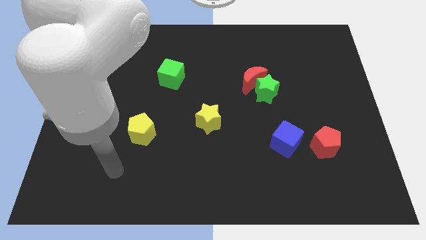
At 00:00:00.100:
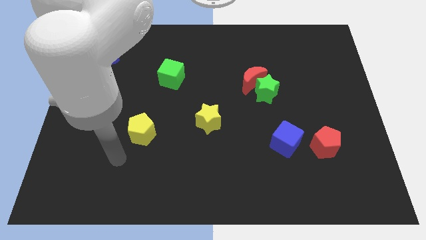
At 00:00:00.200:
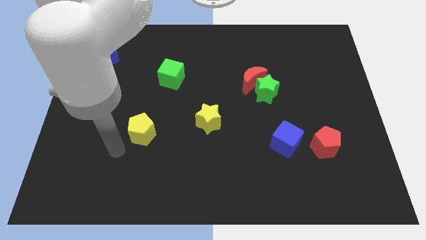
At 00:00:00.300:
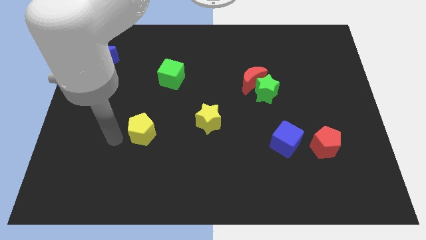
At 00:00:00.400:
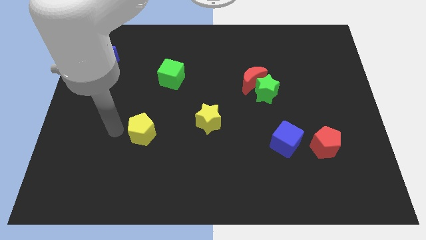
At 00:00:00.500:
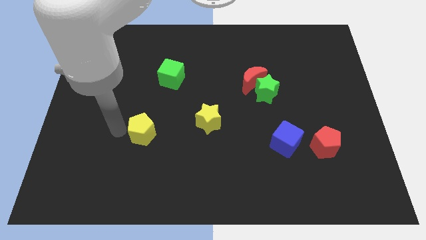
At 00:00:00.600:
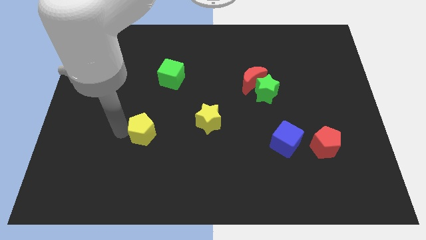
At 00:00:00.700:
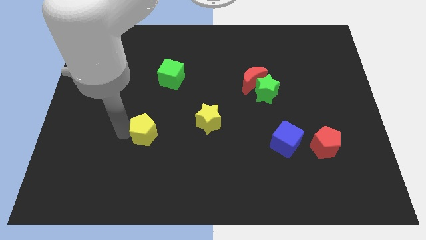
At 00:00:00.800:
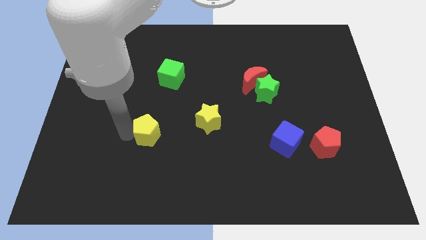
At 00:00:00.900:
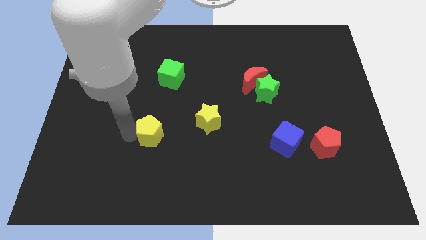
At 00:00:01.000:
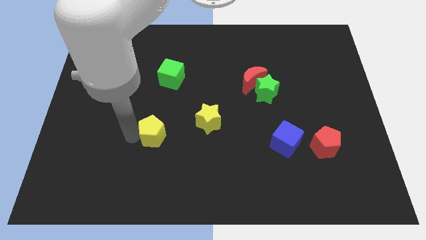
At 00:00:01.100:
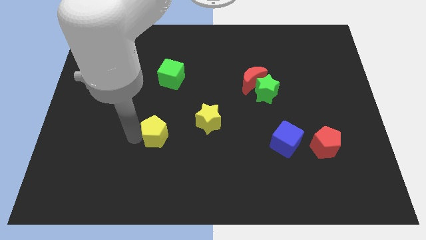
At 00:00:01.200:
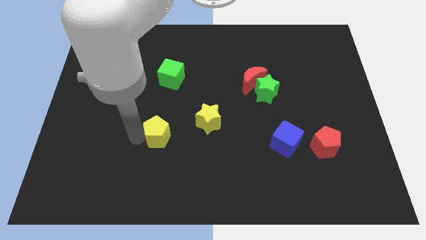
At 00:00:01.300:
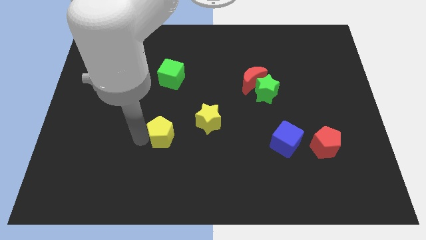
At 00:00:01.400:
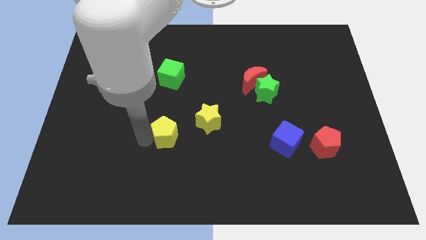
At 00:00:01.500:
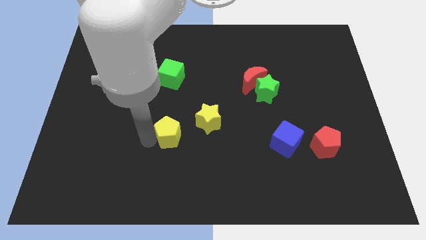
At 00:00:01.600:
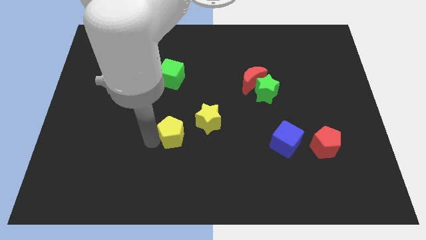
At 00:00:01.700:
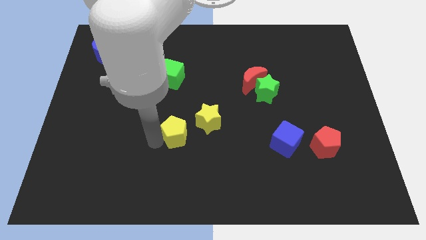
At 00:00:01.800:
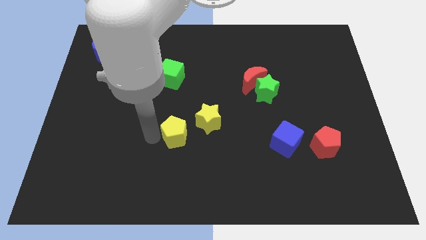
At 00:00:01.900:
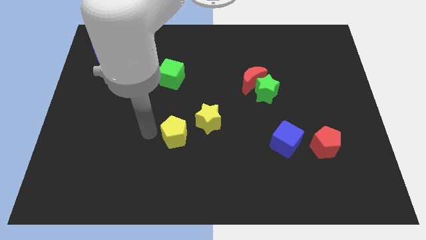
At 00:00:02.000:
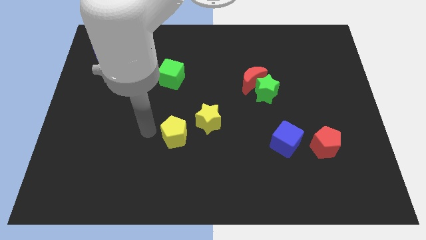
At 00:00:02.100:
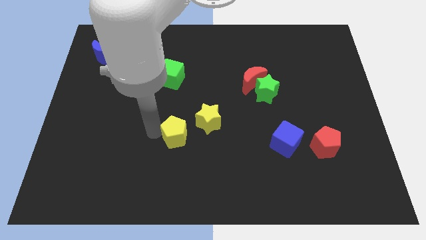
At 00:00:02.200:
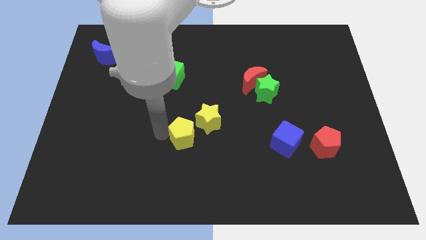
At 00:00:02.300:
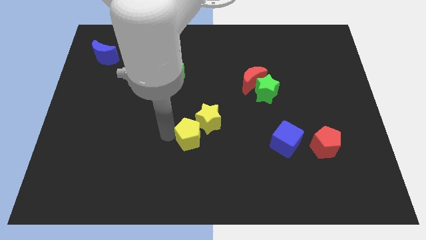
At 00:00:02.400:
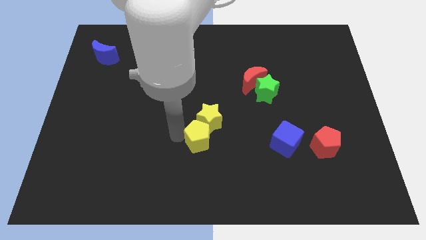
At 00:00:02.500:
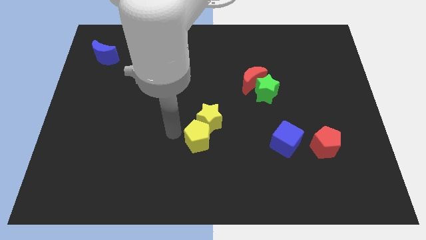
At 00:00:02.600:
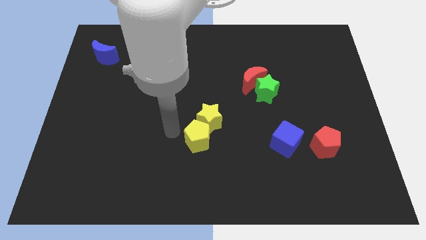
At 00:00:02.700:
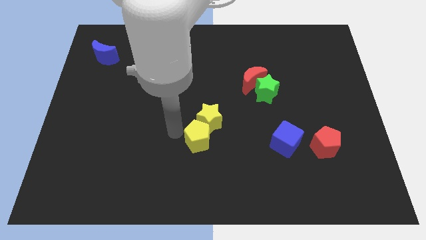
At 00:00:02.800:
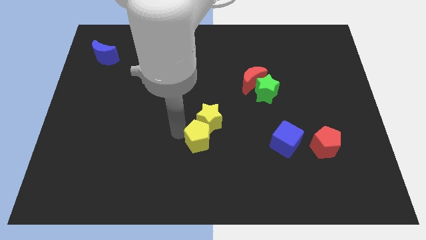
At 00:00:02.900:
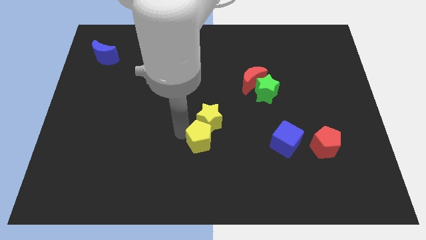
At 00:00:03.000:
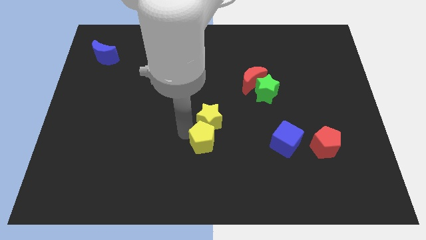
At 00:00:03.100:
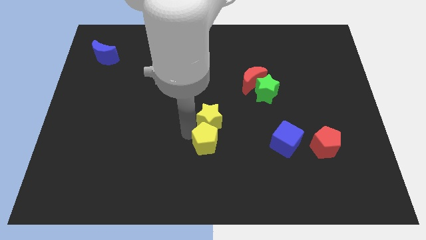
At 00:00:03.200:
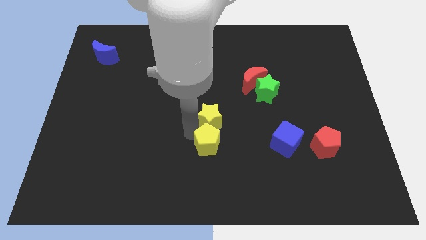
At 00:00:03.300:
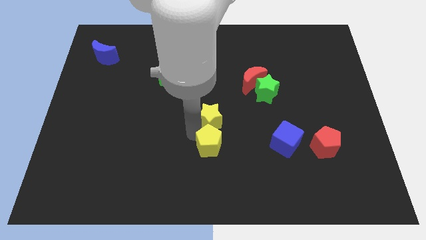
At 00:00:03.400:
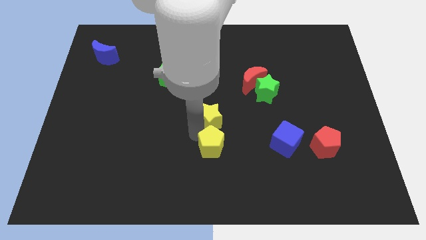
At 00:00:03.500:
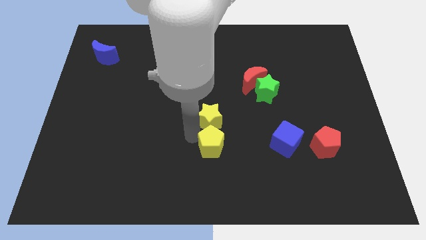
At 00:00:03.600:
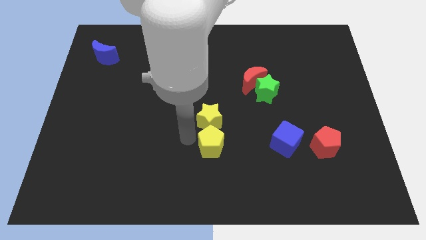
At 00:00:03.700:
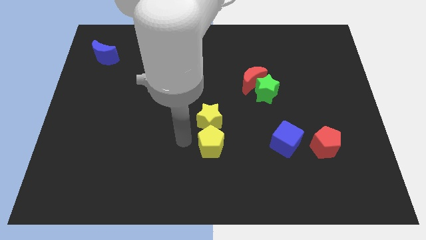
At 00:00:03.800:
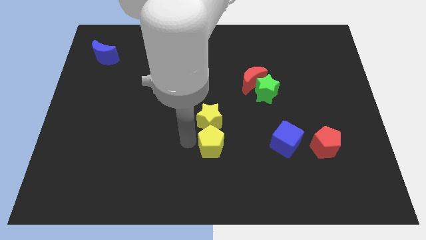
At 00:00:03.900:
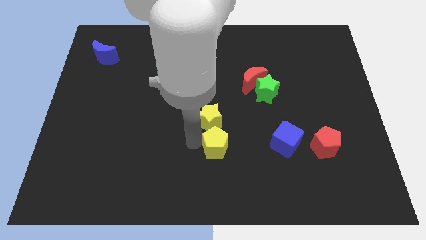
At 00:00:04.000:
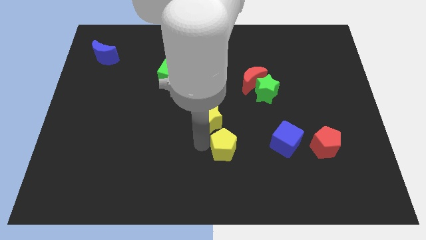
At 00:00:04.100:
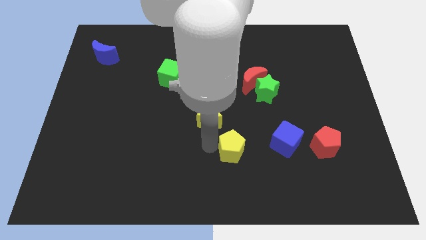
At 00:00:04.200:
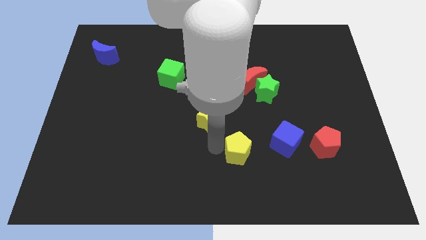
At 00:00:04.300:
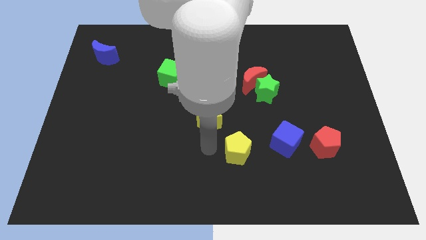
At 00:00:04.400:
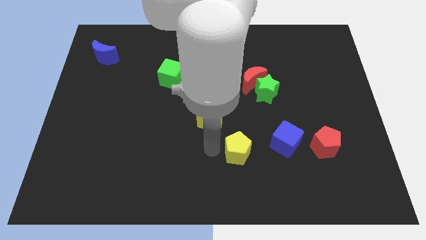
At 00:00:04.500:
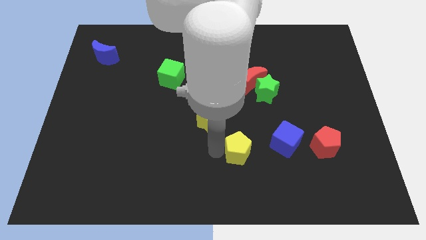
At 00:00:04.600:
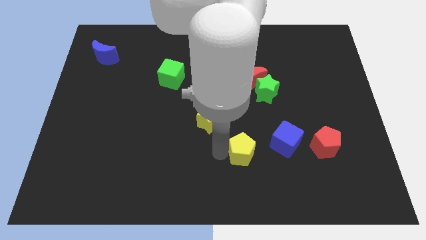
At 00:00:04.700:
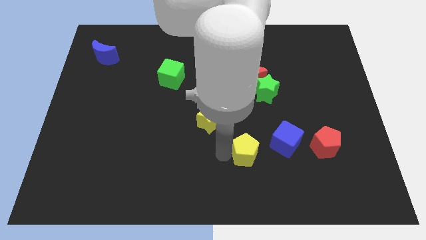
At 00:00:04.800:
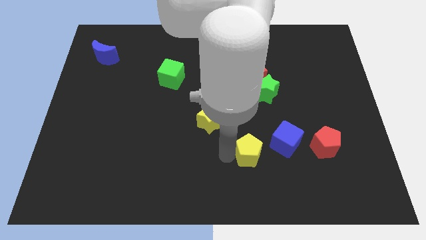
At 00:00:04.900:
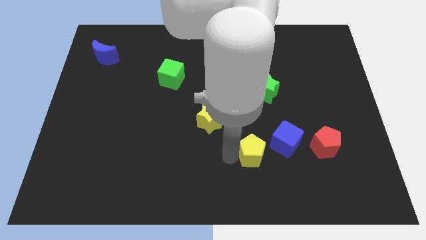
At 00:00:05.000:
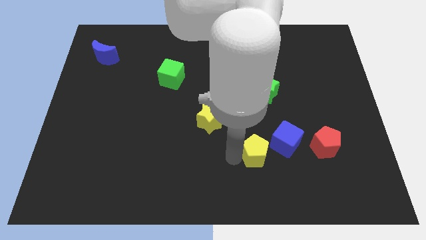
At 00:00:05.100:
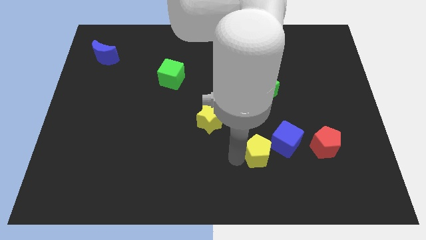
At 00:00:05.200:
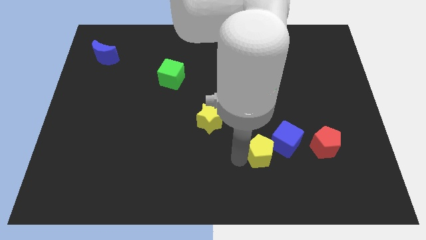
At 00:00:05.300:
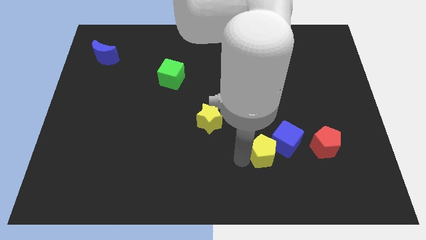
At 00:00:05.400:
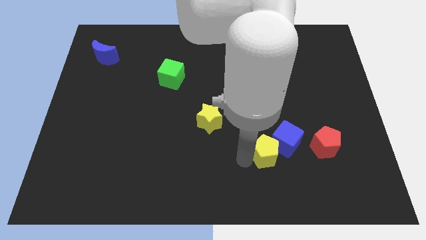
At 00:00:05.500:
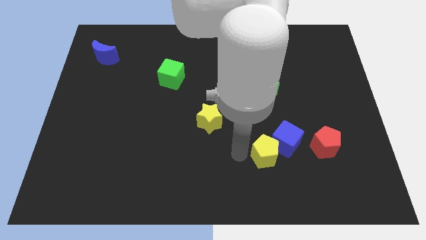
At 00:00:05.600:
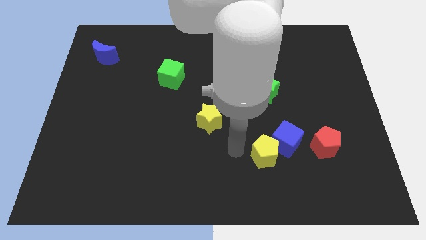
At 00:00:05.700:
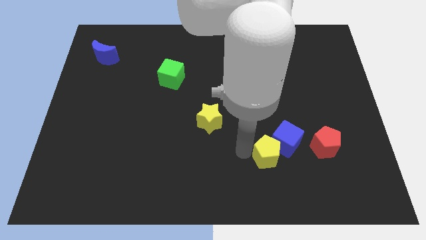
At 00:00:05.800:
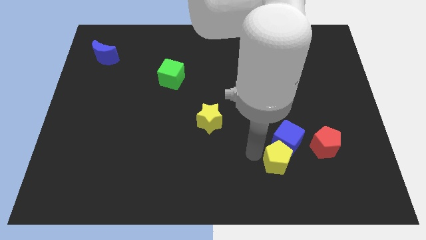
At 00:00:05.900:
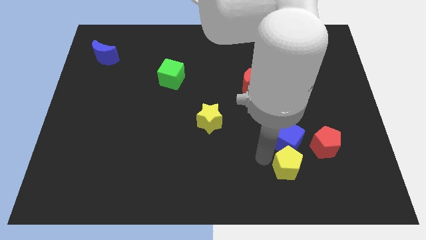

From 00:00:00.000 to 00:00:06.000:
move the yellow pentagon to the bottom right of the blue cube

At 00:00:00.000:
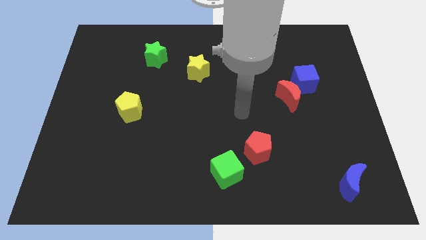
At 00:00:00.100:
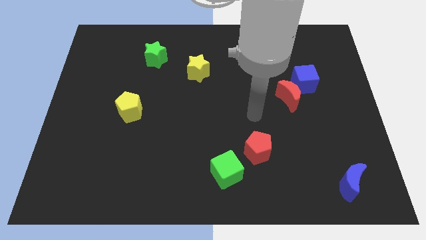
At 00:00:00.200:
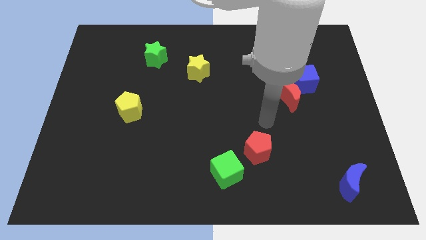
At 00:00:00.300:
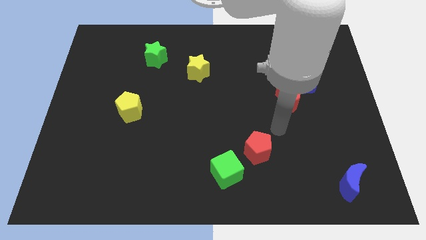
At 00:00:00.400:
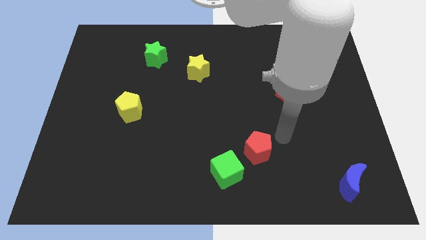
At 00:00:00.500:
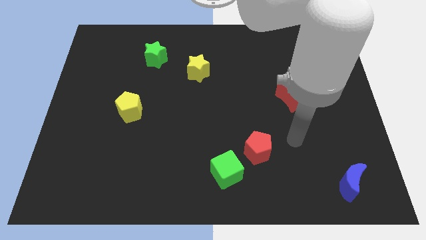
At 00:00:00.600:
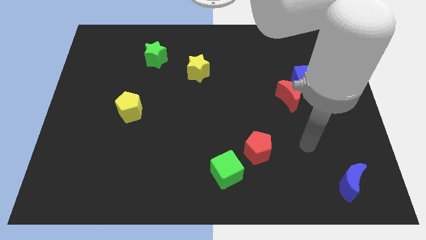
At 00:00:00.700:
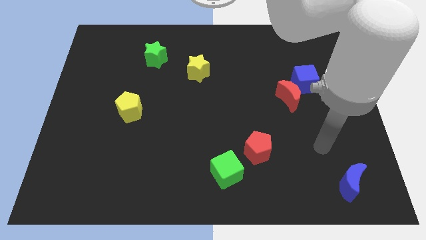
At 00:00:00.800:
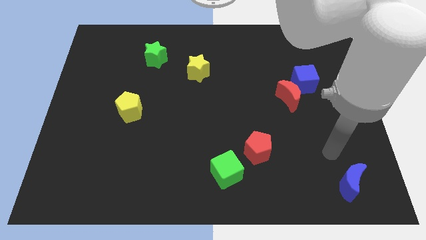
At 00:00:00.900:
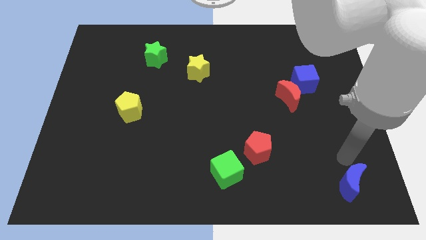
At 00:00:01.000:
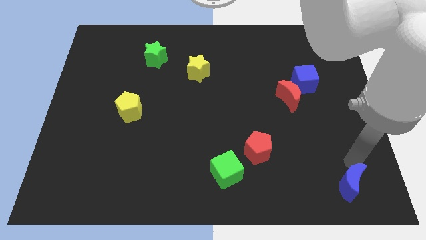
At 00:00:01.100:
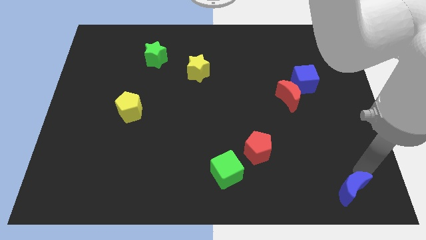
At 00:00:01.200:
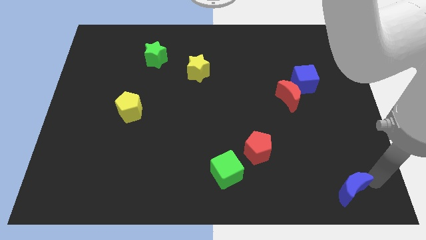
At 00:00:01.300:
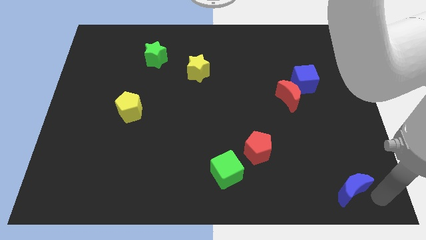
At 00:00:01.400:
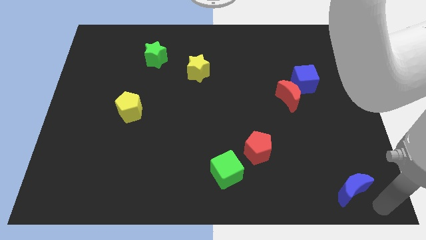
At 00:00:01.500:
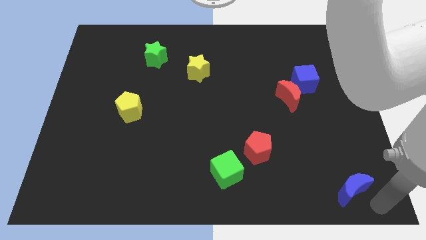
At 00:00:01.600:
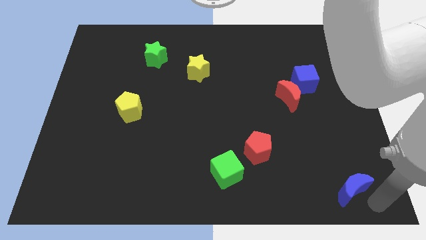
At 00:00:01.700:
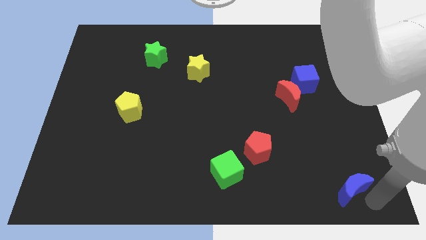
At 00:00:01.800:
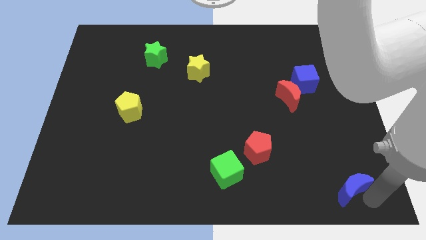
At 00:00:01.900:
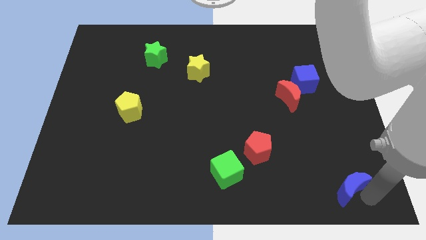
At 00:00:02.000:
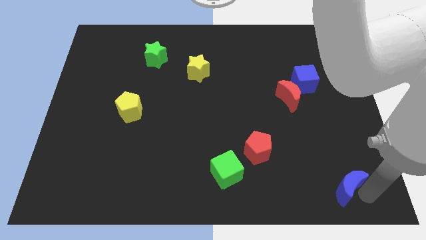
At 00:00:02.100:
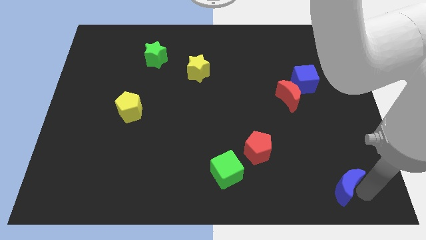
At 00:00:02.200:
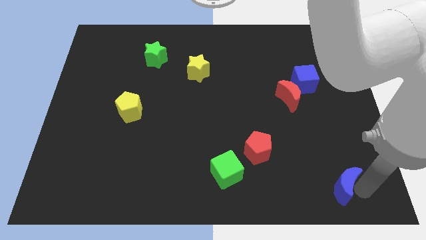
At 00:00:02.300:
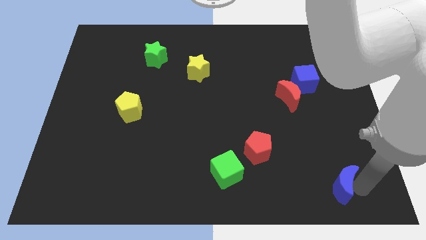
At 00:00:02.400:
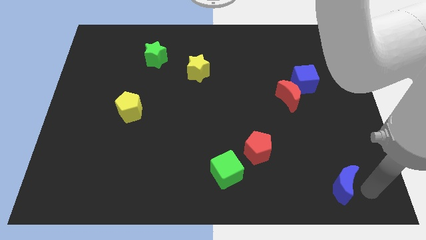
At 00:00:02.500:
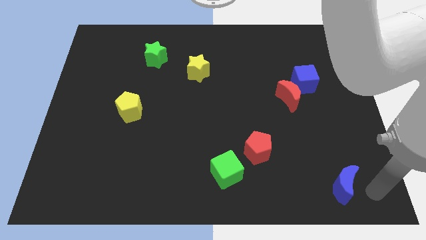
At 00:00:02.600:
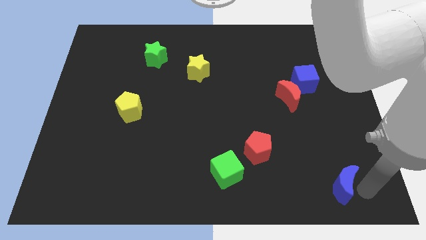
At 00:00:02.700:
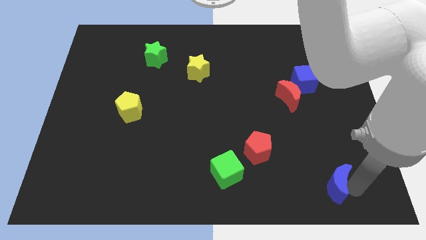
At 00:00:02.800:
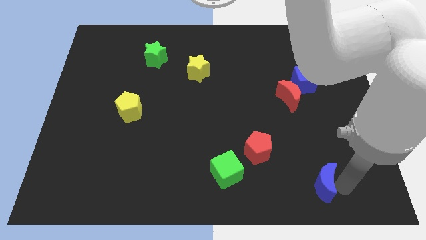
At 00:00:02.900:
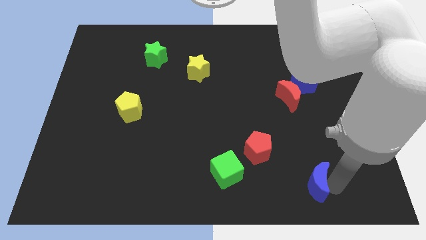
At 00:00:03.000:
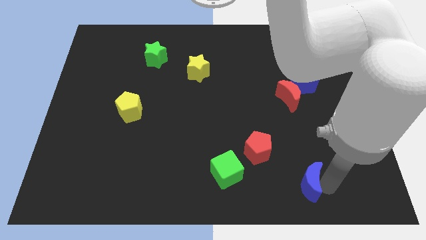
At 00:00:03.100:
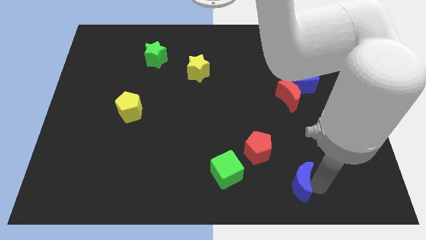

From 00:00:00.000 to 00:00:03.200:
push the blue moon just right of the green cube
